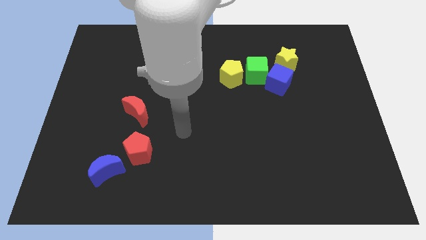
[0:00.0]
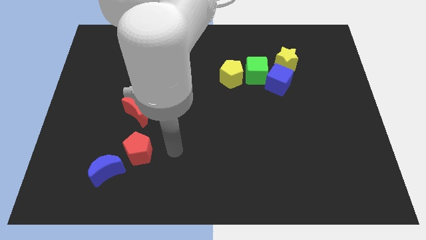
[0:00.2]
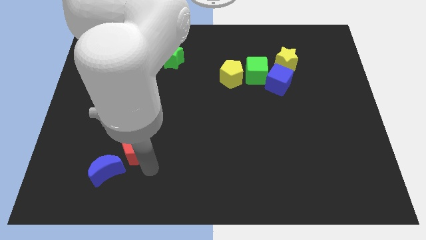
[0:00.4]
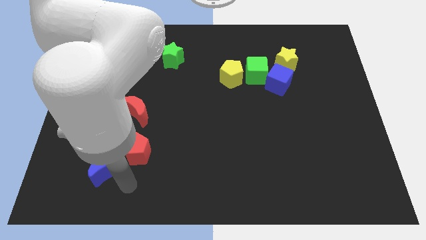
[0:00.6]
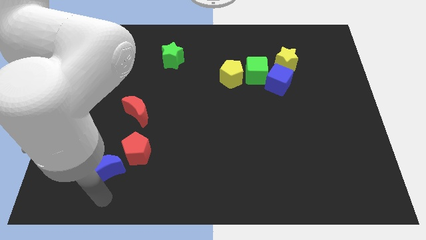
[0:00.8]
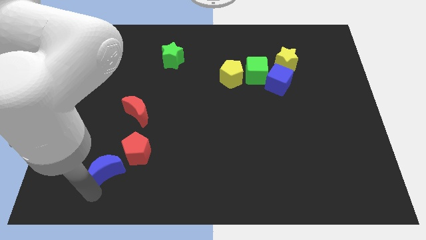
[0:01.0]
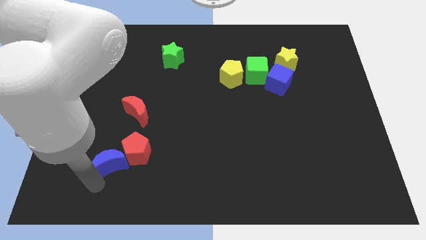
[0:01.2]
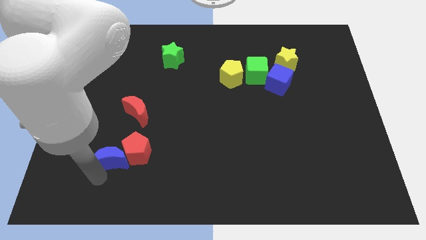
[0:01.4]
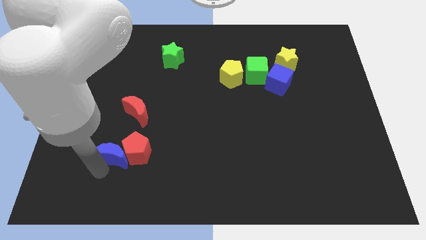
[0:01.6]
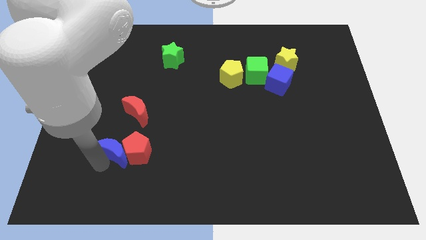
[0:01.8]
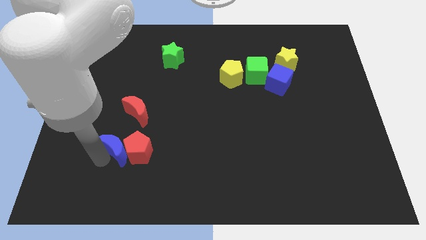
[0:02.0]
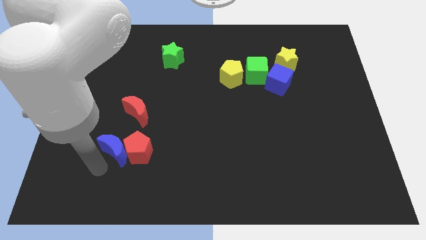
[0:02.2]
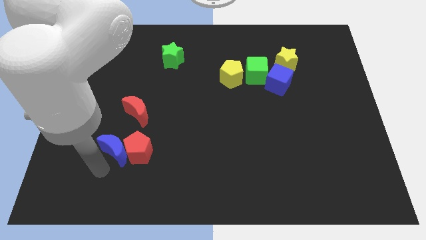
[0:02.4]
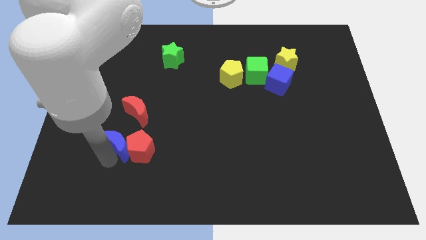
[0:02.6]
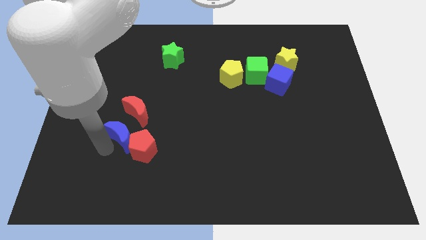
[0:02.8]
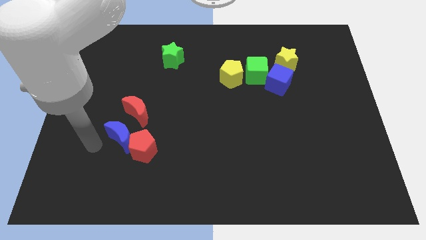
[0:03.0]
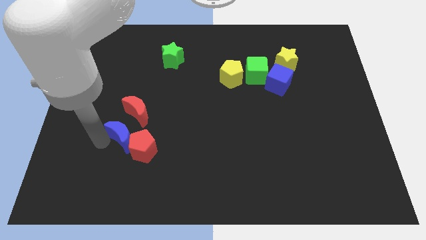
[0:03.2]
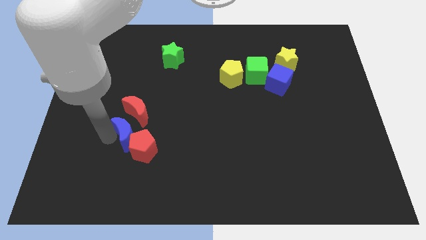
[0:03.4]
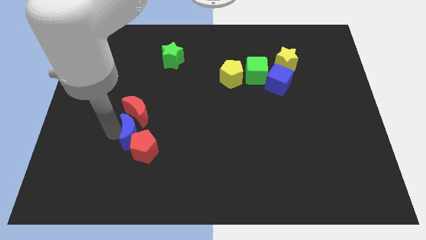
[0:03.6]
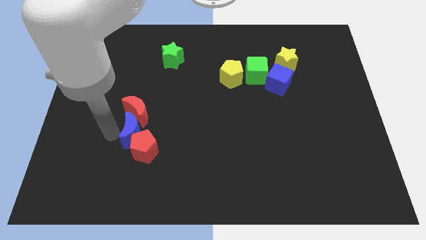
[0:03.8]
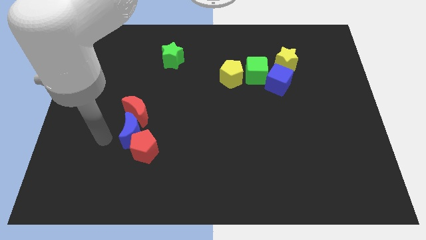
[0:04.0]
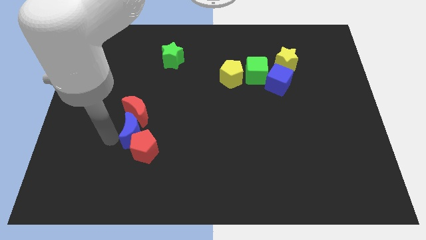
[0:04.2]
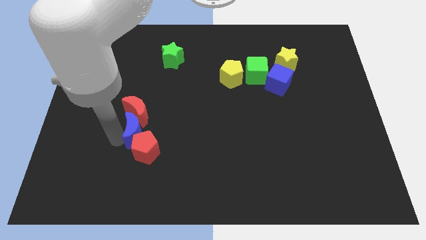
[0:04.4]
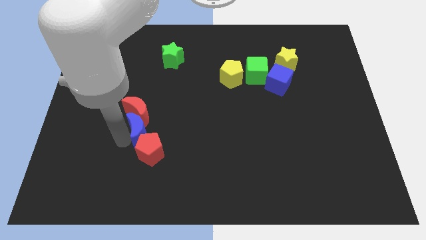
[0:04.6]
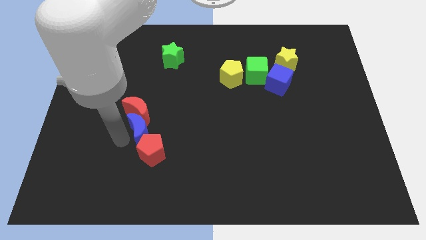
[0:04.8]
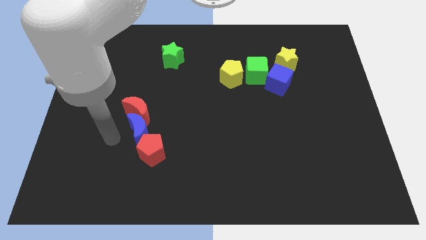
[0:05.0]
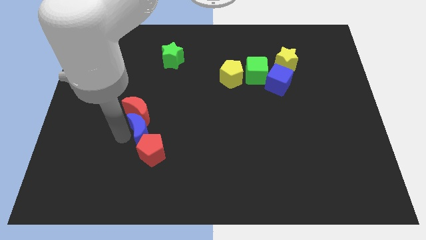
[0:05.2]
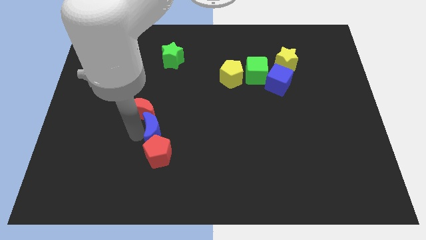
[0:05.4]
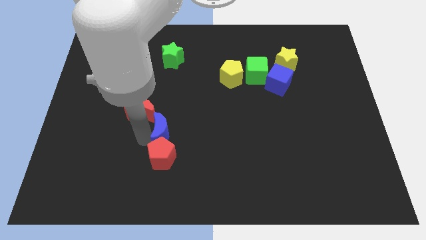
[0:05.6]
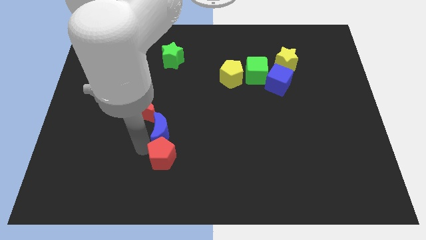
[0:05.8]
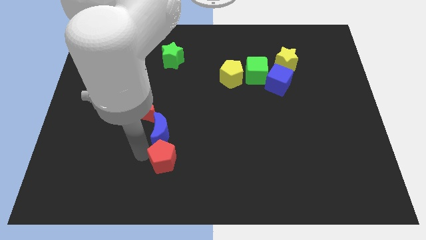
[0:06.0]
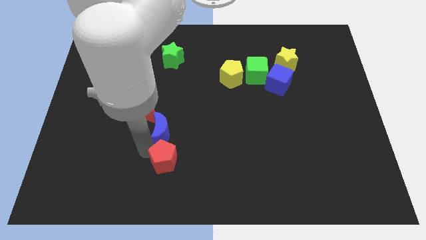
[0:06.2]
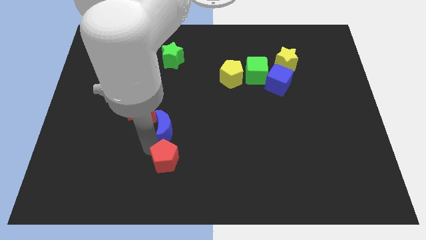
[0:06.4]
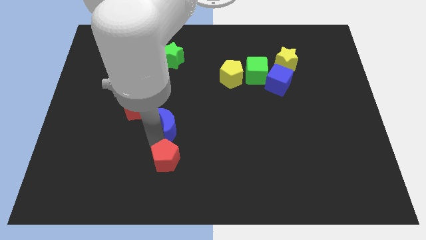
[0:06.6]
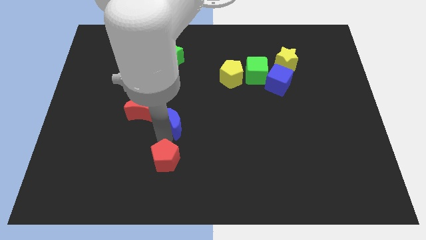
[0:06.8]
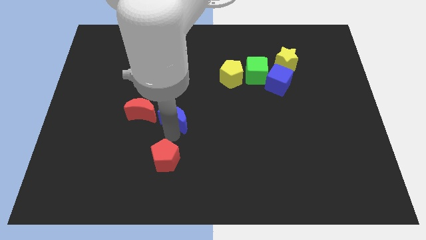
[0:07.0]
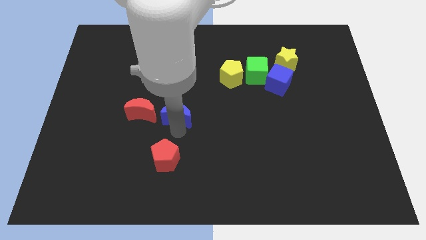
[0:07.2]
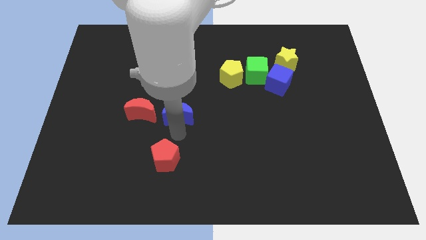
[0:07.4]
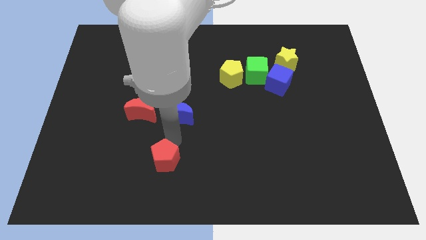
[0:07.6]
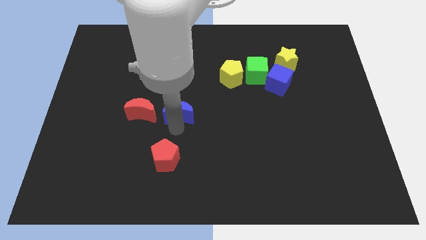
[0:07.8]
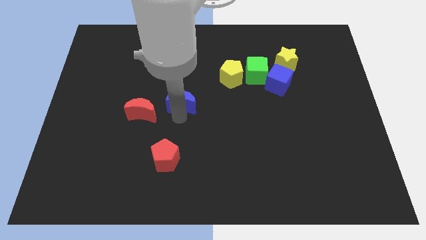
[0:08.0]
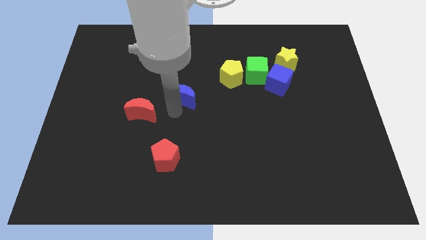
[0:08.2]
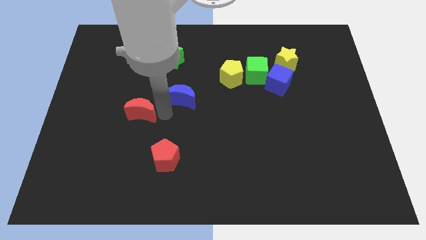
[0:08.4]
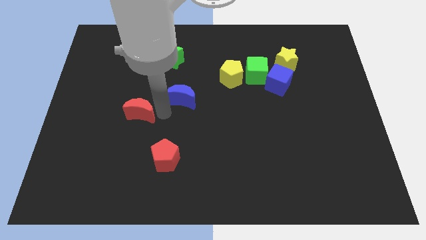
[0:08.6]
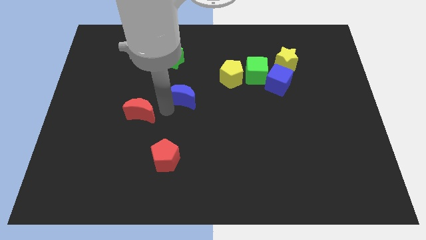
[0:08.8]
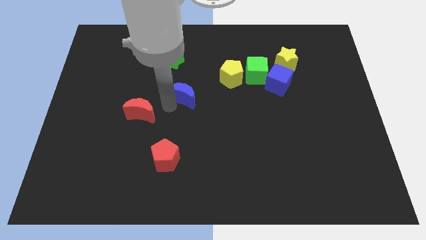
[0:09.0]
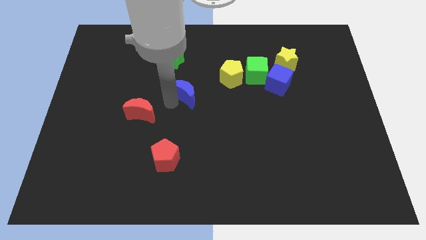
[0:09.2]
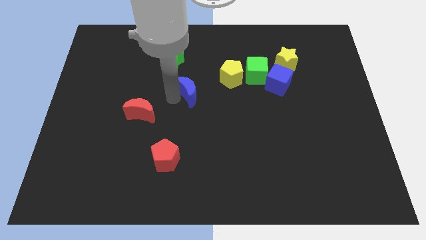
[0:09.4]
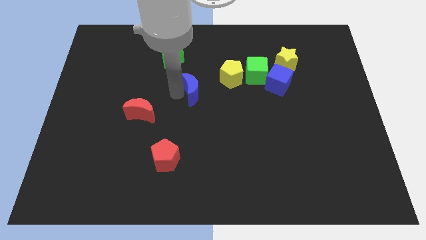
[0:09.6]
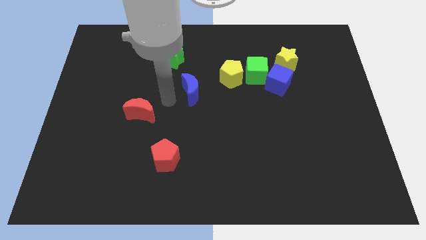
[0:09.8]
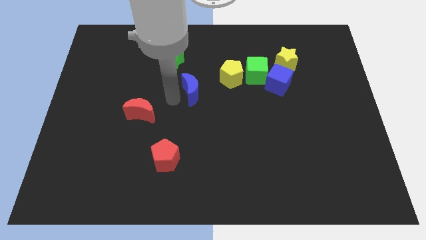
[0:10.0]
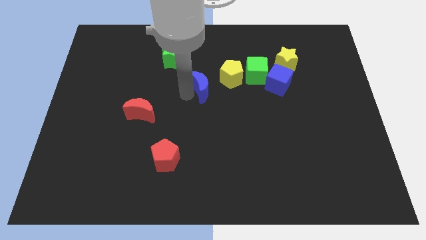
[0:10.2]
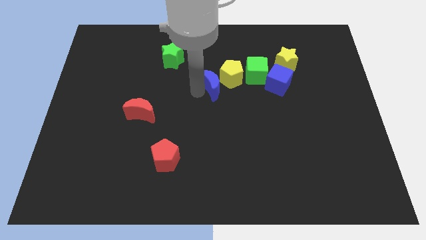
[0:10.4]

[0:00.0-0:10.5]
put the blue moon next to the yellow pentagon

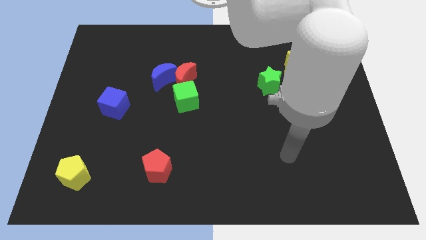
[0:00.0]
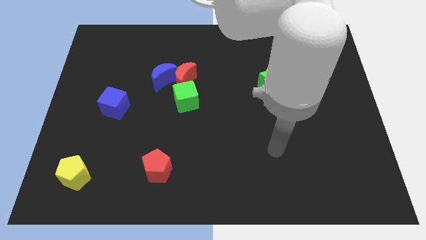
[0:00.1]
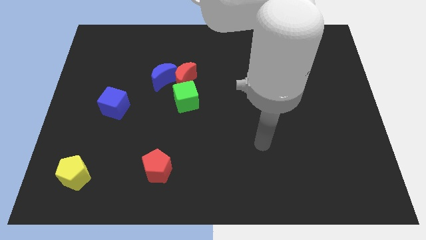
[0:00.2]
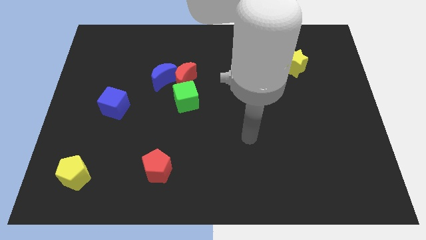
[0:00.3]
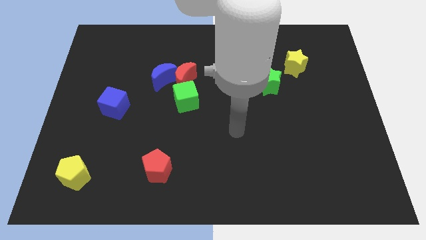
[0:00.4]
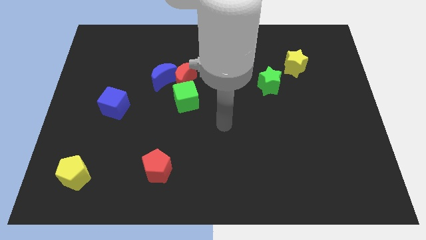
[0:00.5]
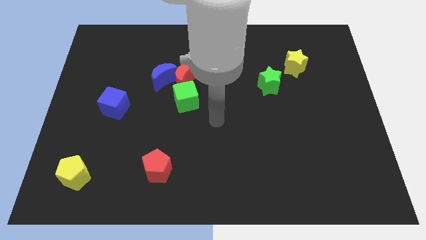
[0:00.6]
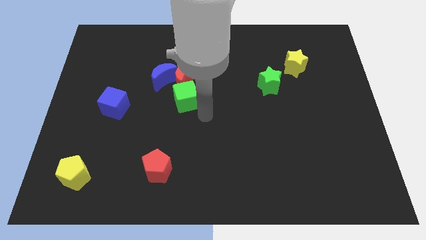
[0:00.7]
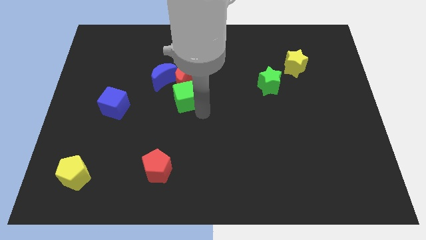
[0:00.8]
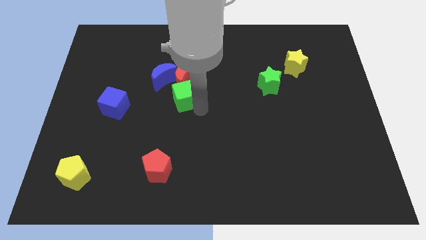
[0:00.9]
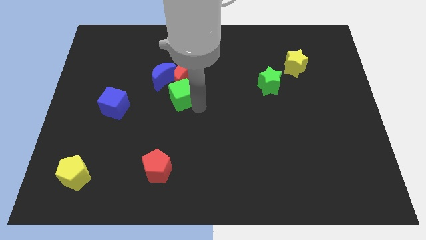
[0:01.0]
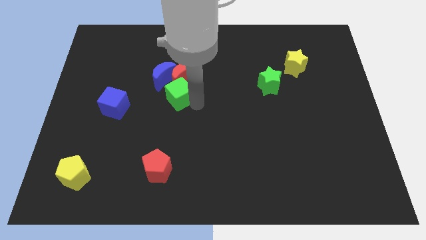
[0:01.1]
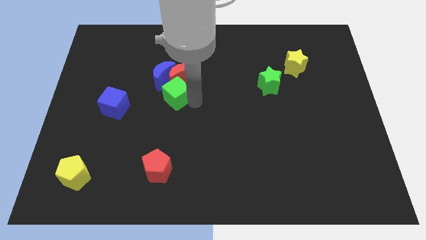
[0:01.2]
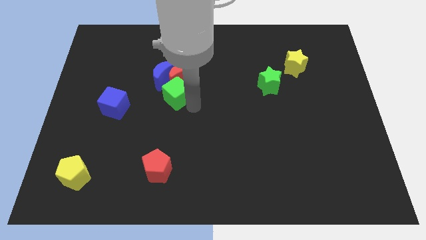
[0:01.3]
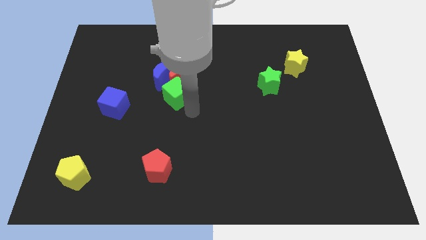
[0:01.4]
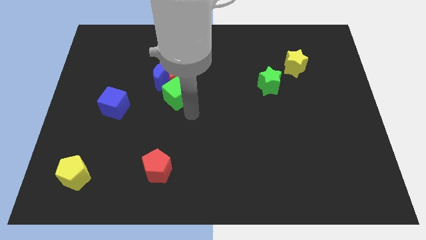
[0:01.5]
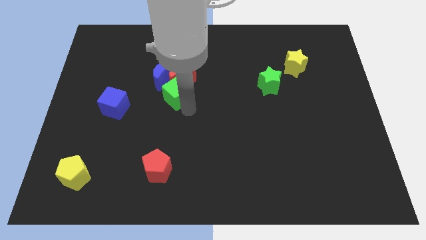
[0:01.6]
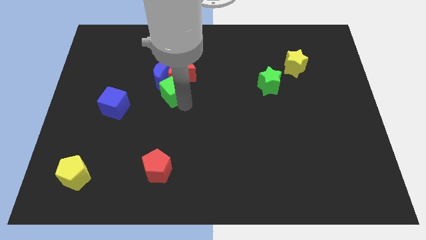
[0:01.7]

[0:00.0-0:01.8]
put the green cube next to the blue moon

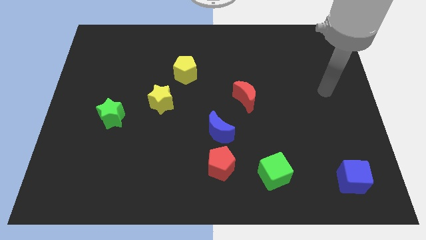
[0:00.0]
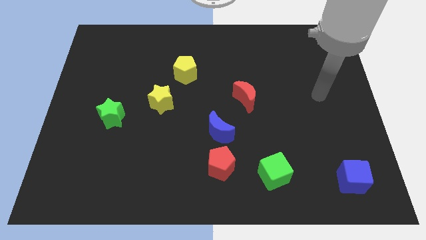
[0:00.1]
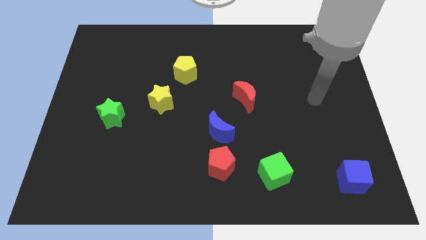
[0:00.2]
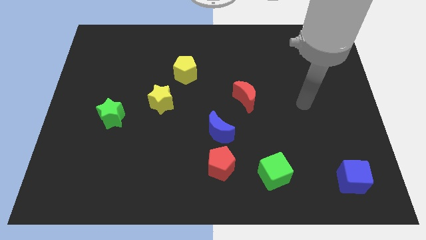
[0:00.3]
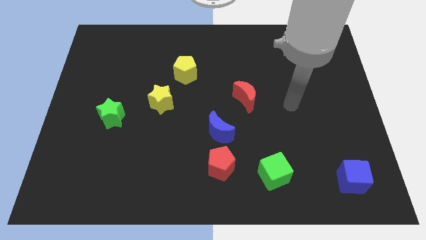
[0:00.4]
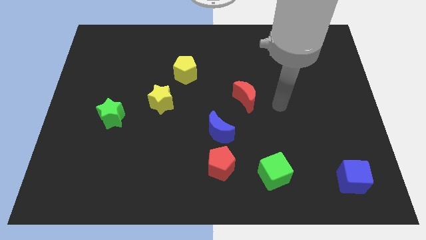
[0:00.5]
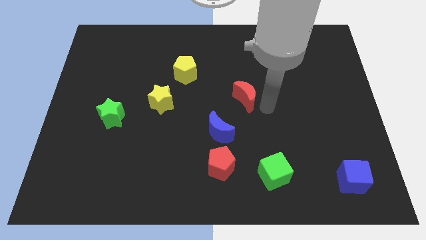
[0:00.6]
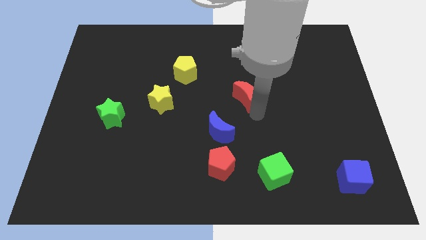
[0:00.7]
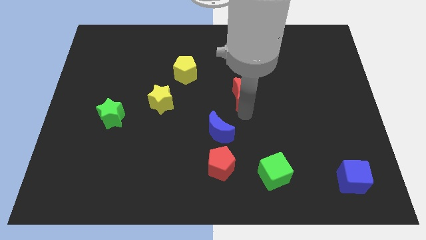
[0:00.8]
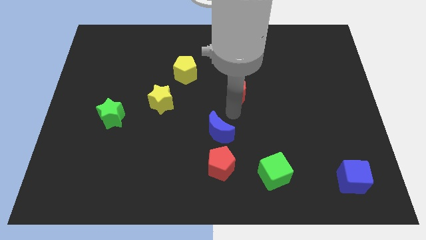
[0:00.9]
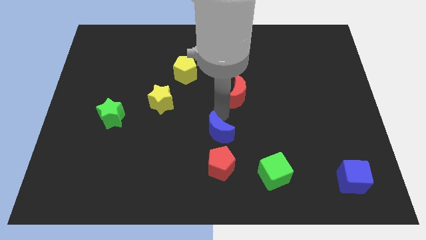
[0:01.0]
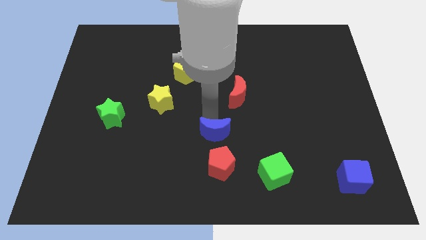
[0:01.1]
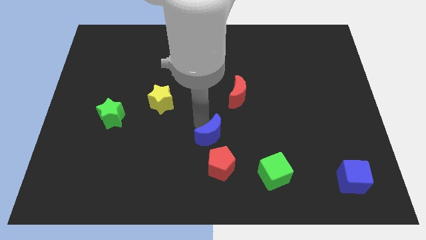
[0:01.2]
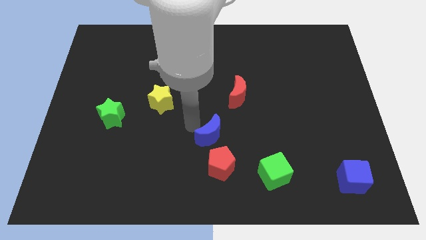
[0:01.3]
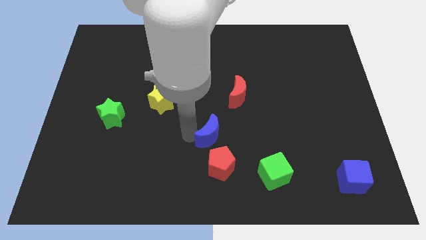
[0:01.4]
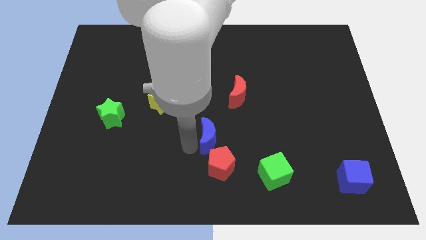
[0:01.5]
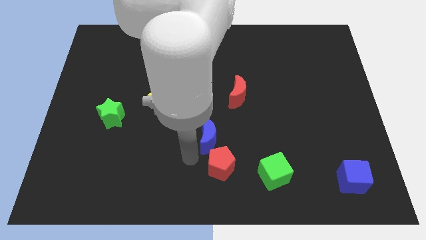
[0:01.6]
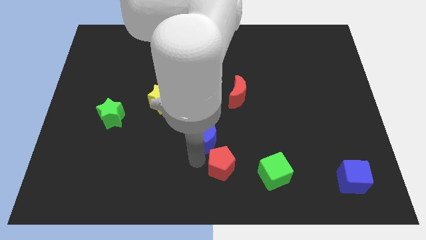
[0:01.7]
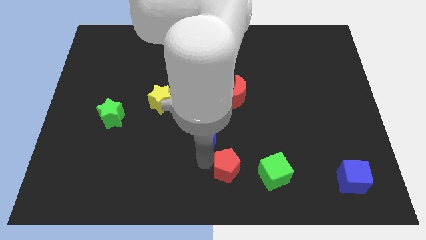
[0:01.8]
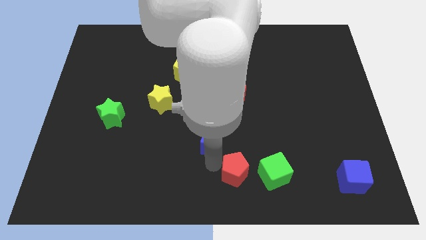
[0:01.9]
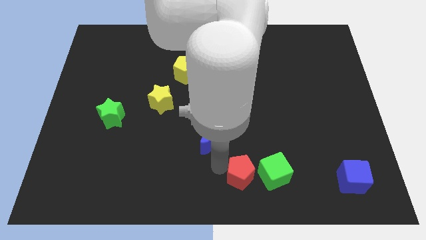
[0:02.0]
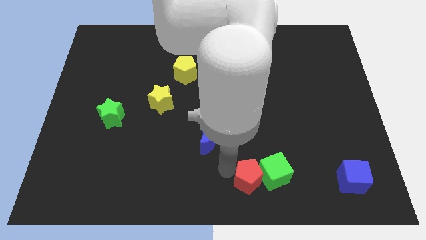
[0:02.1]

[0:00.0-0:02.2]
slide the red pentagon next to the green cube
